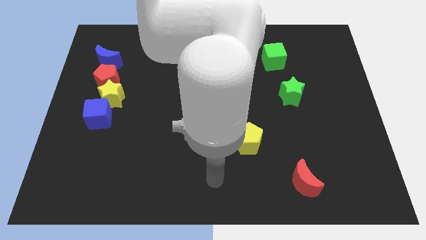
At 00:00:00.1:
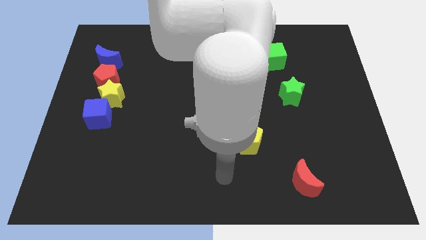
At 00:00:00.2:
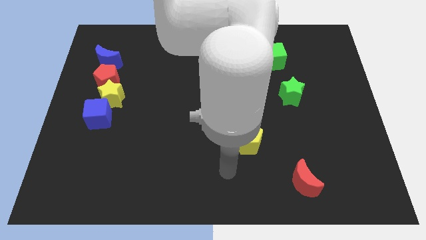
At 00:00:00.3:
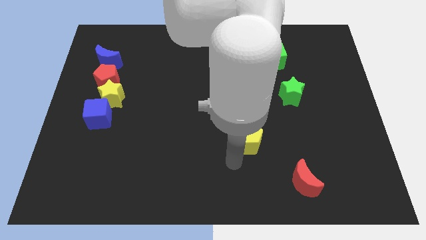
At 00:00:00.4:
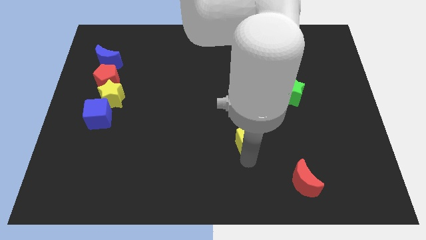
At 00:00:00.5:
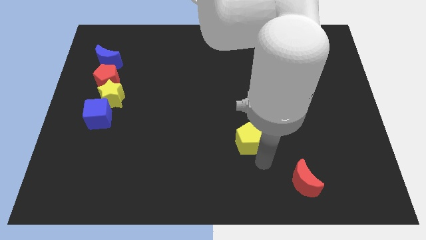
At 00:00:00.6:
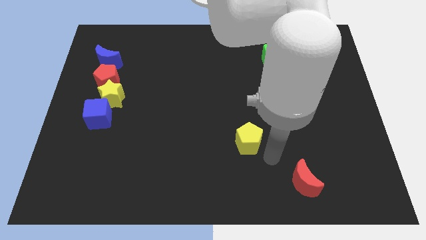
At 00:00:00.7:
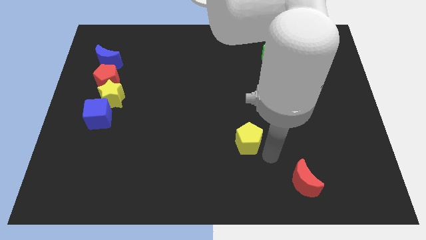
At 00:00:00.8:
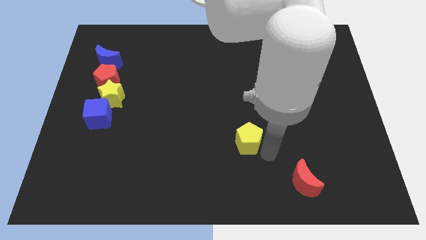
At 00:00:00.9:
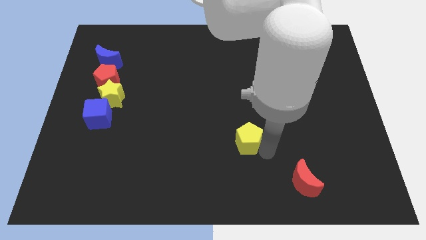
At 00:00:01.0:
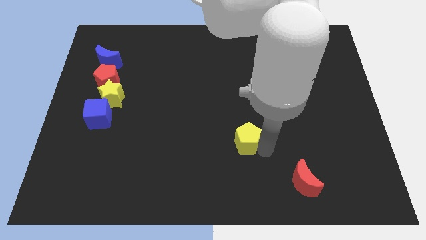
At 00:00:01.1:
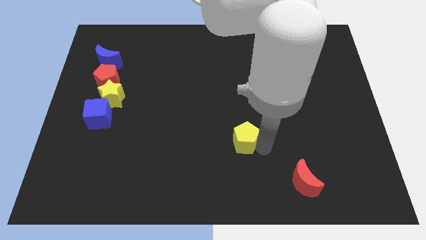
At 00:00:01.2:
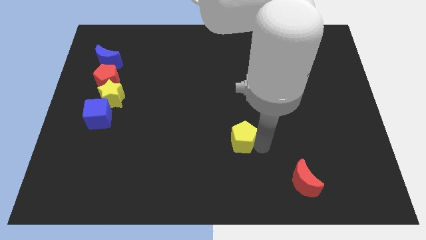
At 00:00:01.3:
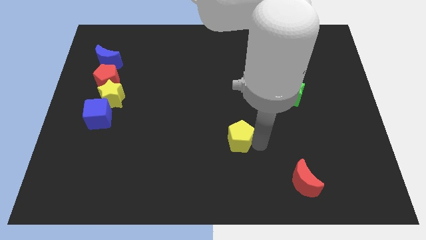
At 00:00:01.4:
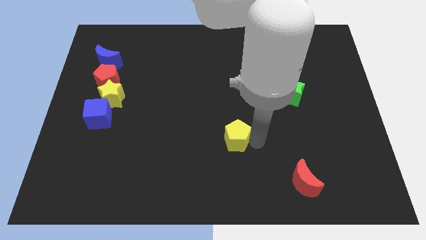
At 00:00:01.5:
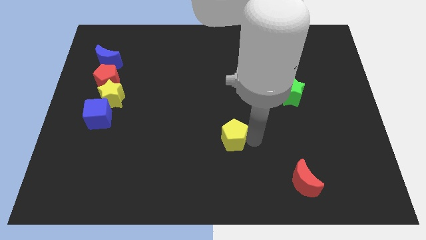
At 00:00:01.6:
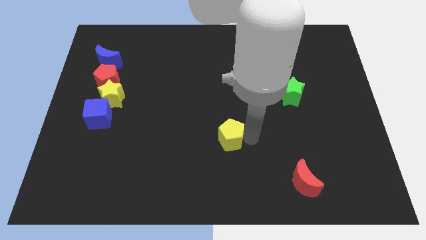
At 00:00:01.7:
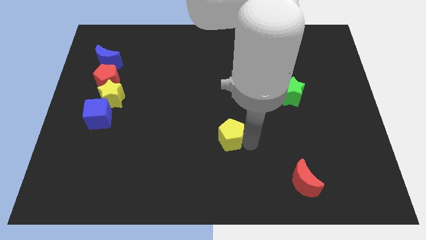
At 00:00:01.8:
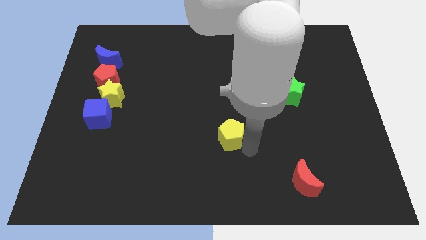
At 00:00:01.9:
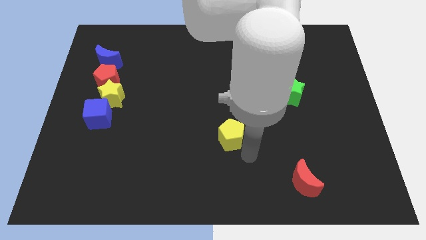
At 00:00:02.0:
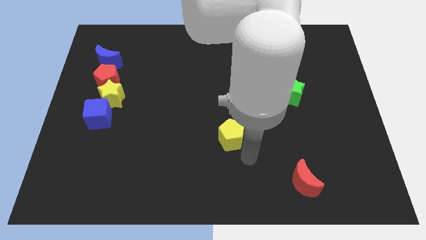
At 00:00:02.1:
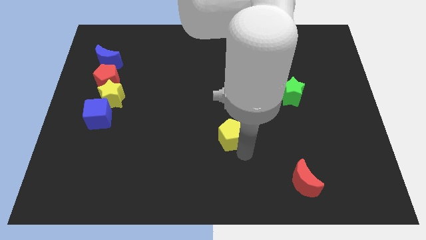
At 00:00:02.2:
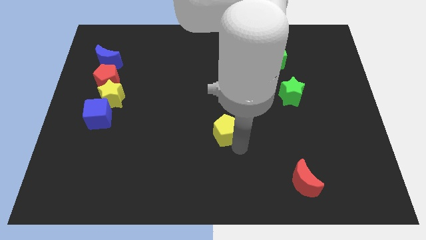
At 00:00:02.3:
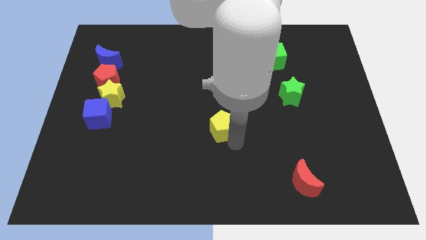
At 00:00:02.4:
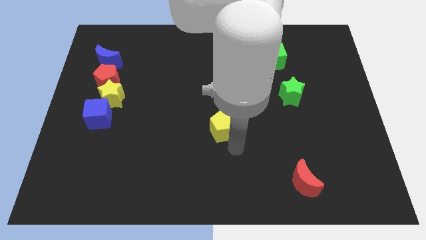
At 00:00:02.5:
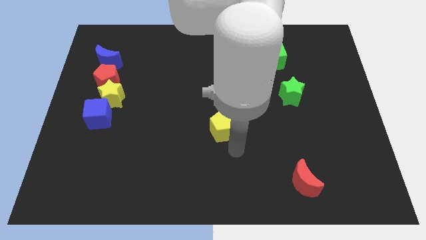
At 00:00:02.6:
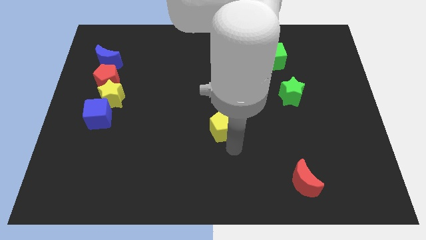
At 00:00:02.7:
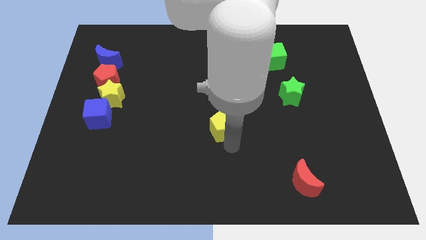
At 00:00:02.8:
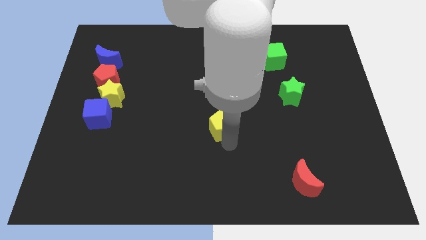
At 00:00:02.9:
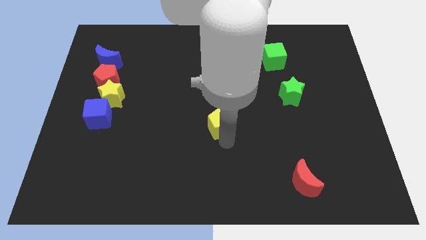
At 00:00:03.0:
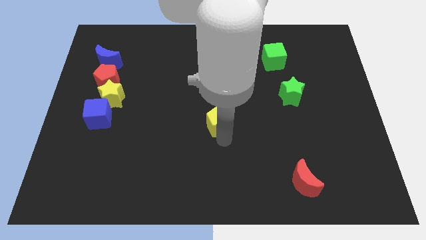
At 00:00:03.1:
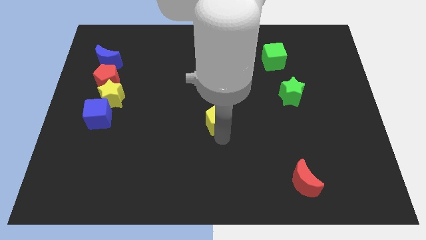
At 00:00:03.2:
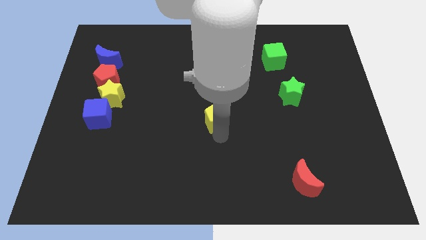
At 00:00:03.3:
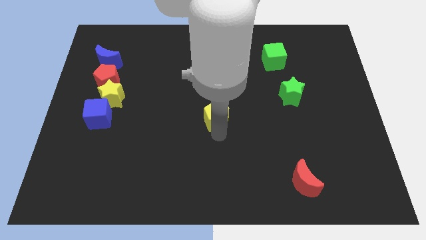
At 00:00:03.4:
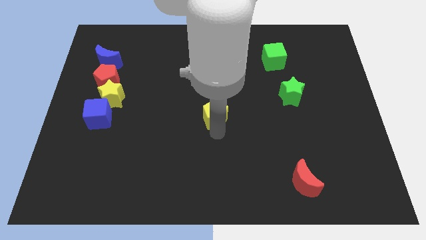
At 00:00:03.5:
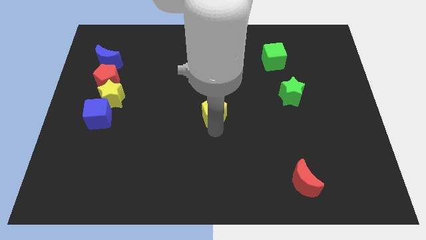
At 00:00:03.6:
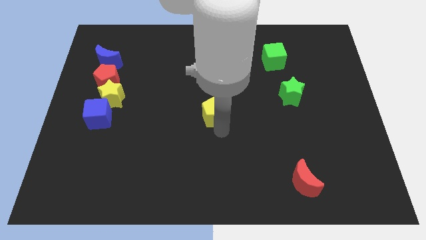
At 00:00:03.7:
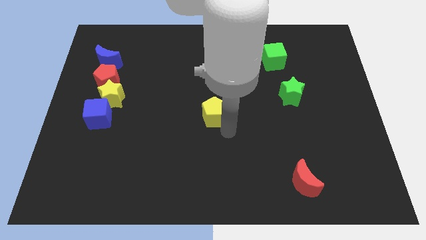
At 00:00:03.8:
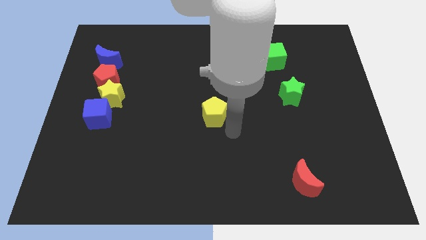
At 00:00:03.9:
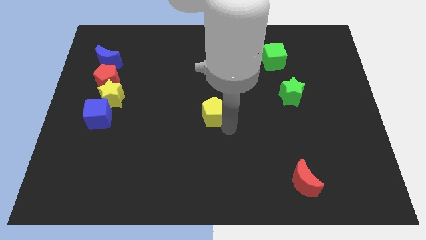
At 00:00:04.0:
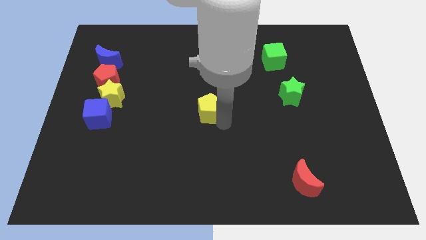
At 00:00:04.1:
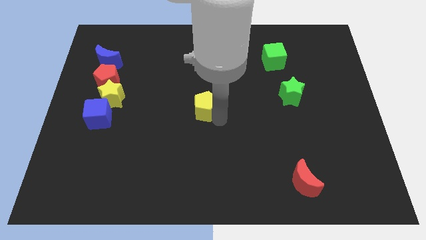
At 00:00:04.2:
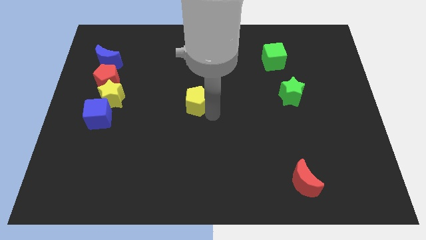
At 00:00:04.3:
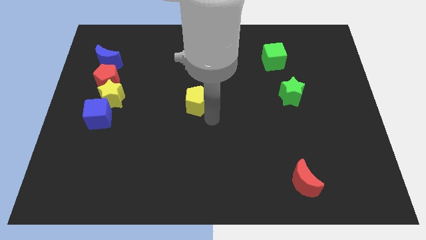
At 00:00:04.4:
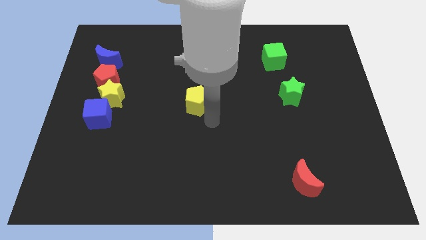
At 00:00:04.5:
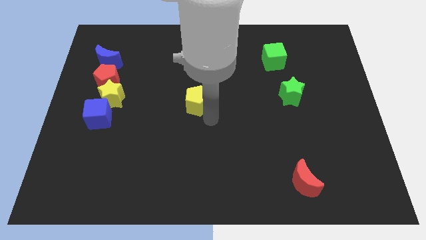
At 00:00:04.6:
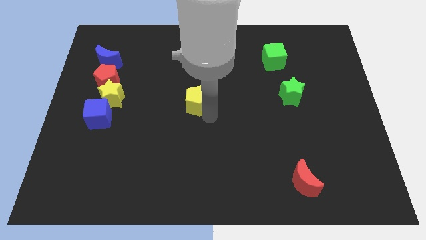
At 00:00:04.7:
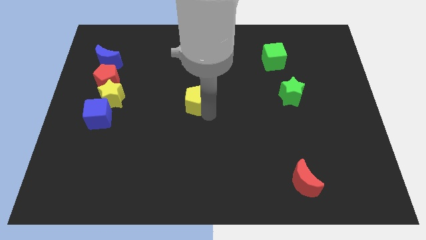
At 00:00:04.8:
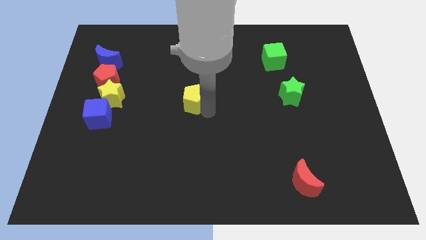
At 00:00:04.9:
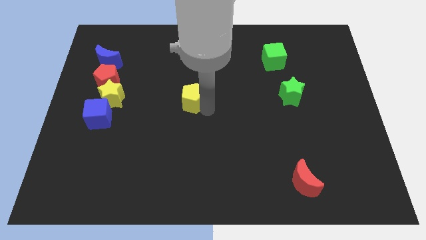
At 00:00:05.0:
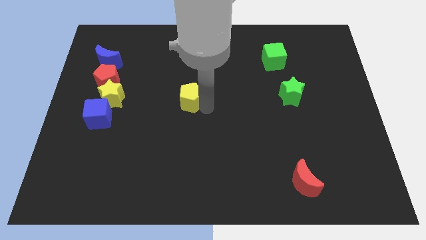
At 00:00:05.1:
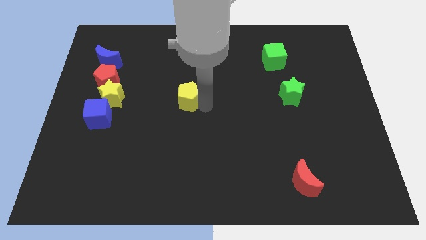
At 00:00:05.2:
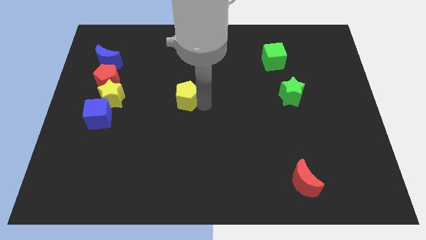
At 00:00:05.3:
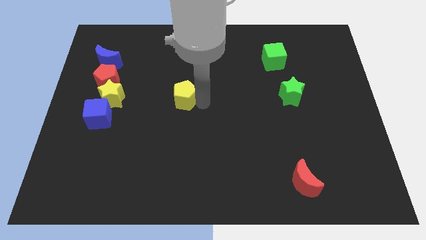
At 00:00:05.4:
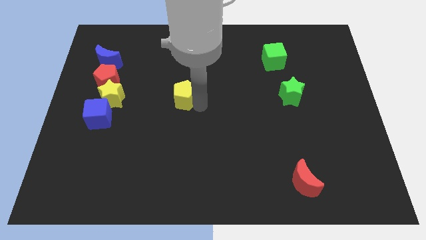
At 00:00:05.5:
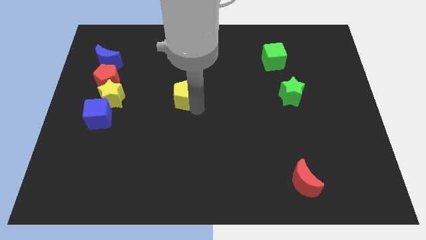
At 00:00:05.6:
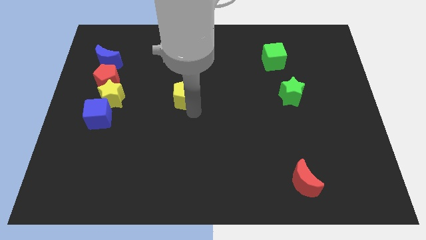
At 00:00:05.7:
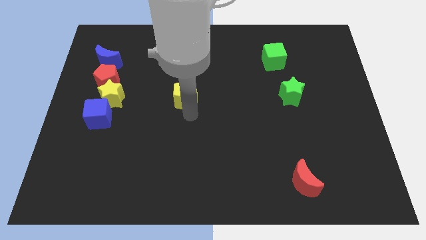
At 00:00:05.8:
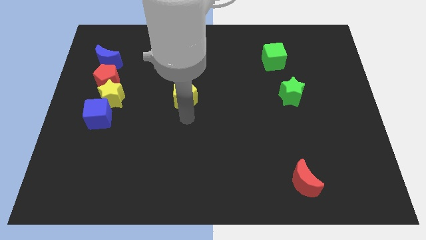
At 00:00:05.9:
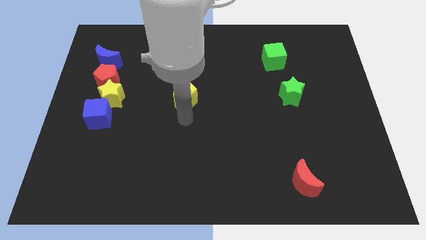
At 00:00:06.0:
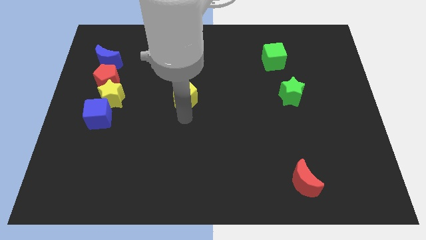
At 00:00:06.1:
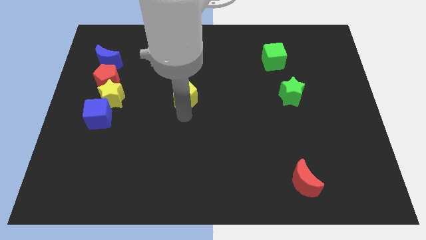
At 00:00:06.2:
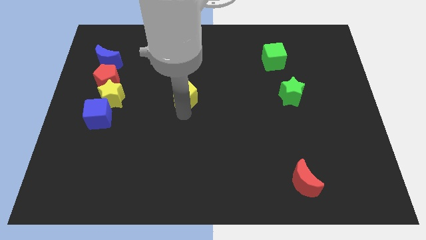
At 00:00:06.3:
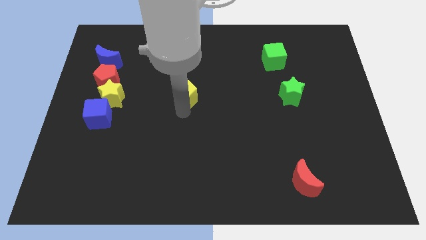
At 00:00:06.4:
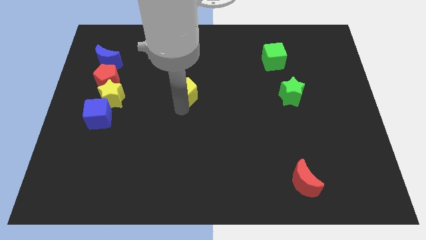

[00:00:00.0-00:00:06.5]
push the yellow pentagon diagonally upwards and left

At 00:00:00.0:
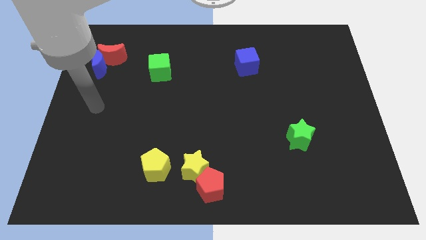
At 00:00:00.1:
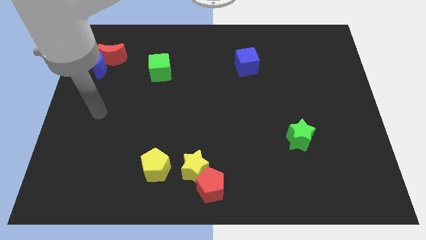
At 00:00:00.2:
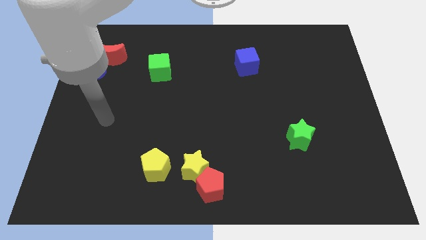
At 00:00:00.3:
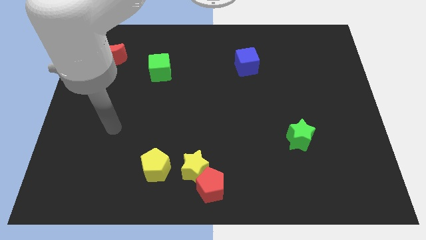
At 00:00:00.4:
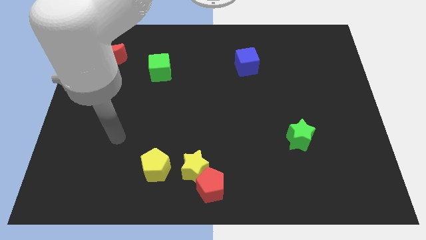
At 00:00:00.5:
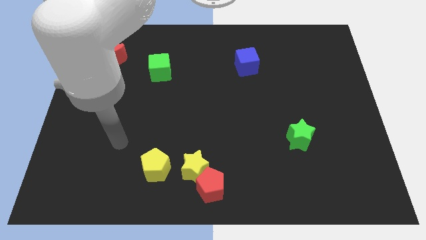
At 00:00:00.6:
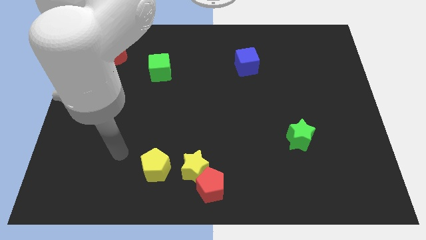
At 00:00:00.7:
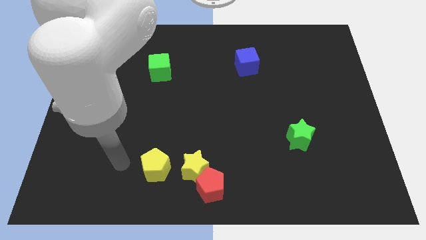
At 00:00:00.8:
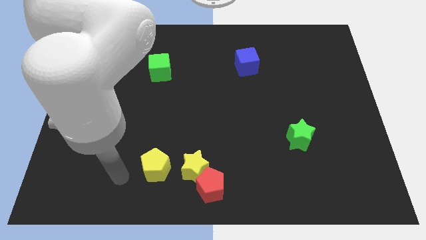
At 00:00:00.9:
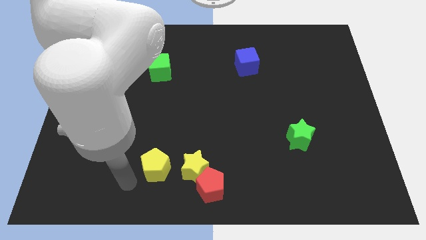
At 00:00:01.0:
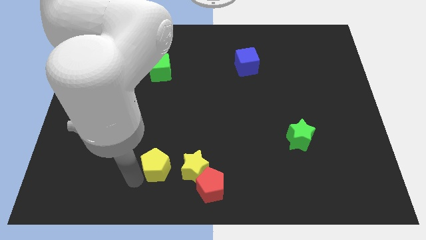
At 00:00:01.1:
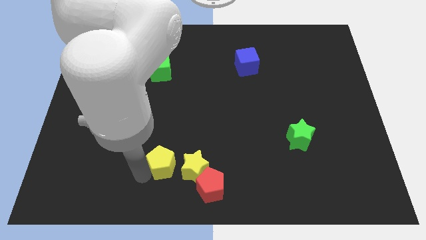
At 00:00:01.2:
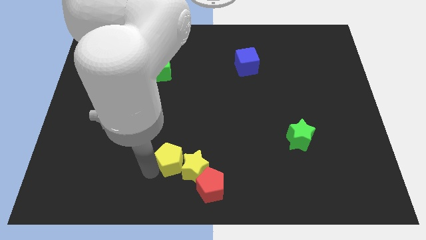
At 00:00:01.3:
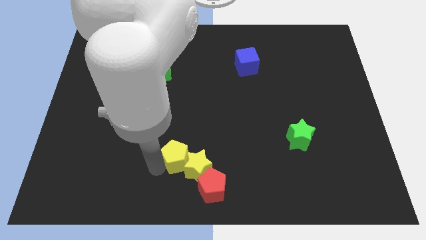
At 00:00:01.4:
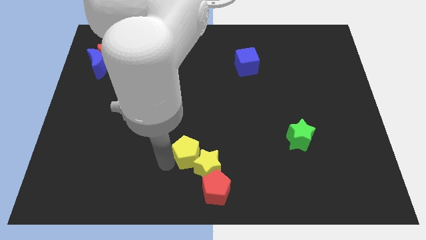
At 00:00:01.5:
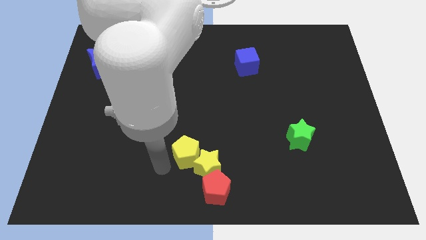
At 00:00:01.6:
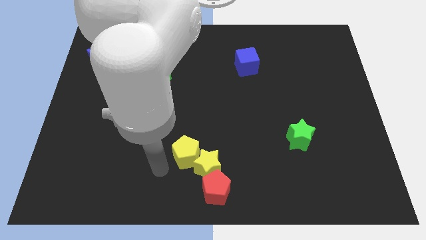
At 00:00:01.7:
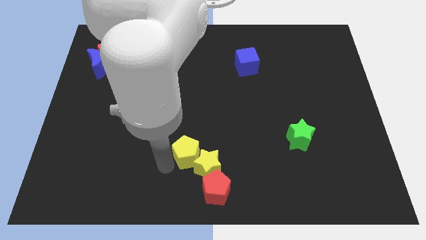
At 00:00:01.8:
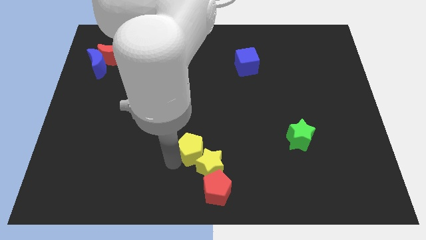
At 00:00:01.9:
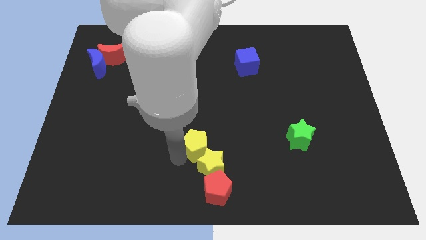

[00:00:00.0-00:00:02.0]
move the yellow pentagon right slightly
